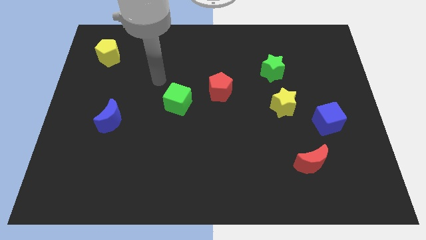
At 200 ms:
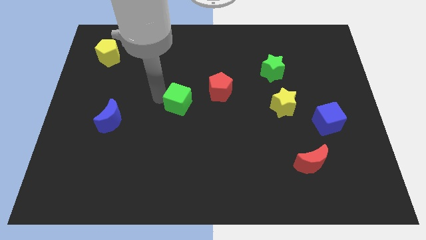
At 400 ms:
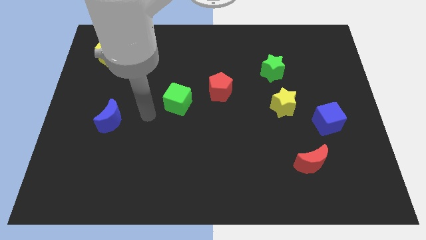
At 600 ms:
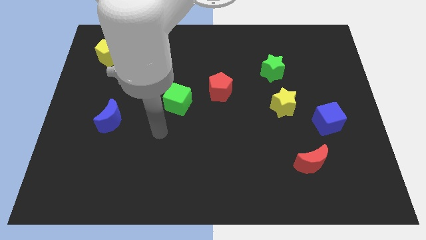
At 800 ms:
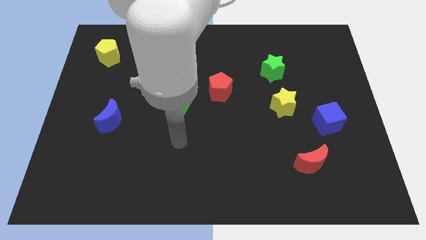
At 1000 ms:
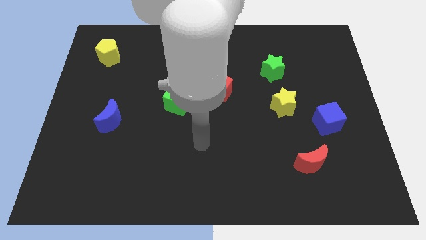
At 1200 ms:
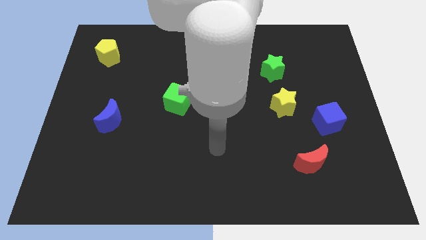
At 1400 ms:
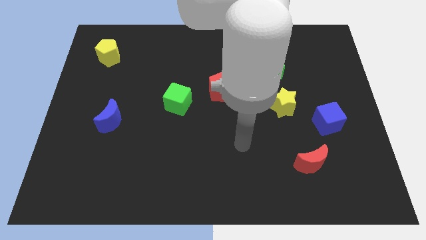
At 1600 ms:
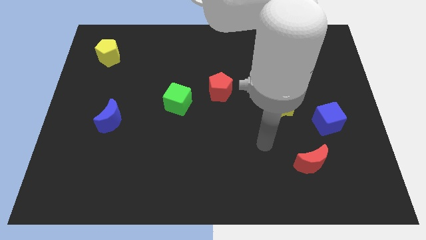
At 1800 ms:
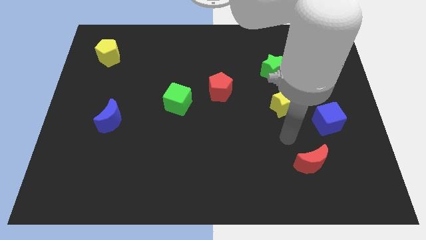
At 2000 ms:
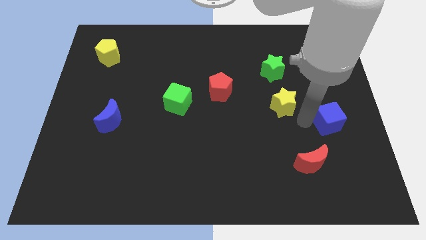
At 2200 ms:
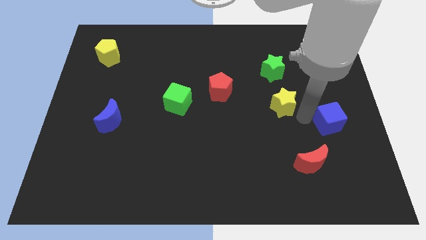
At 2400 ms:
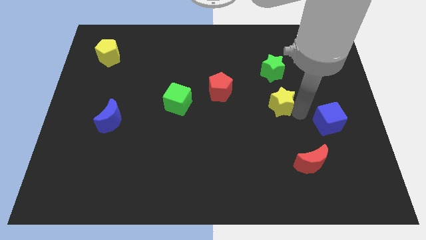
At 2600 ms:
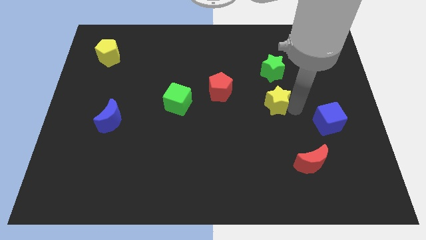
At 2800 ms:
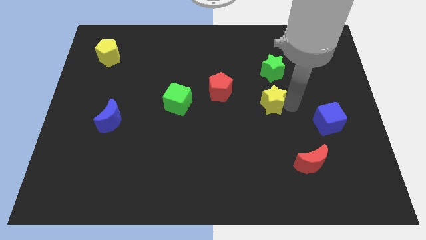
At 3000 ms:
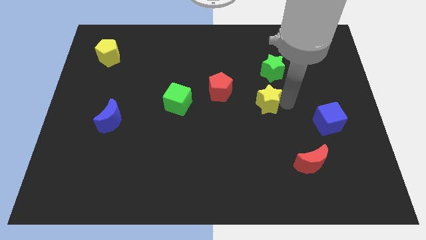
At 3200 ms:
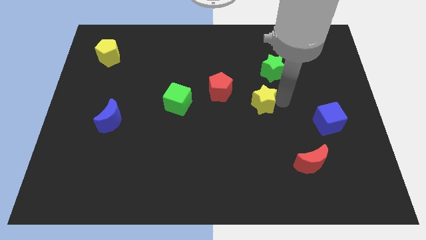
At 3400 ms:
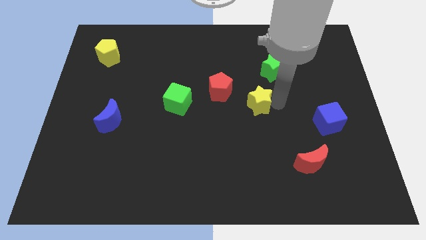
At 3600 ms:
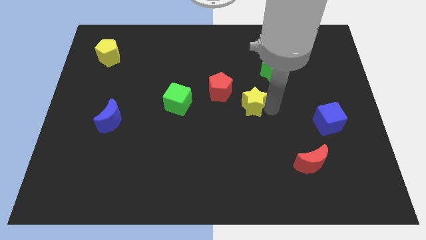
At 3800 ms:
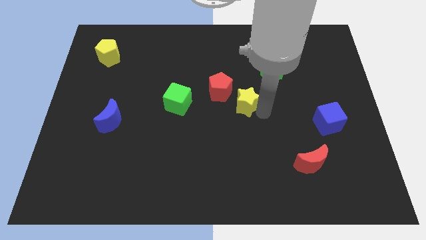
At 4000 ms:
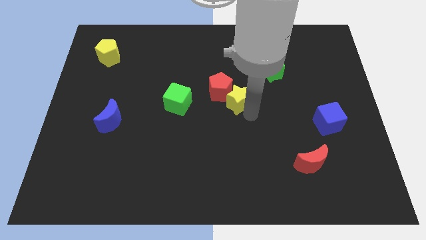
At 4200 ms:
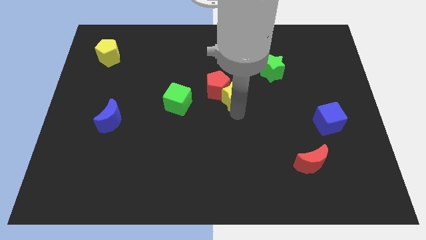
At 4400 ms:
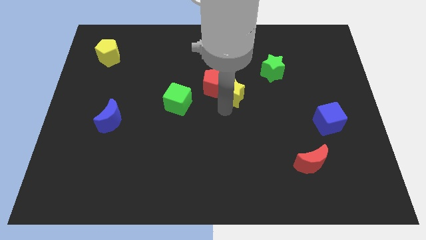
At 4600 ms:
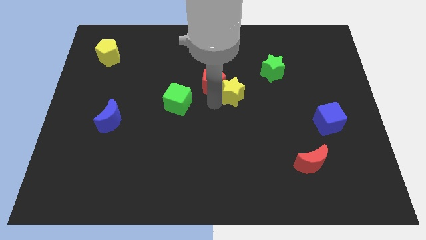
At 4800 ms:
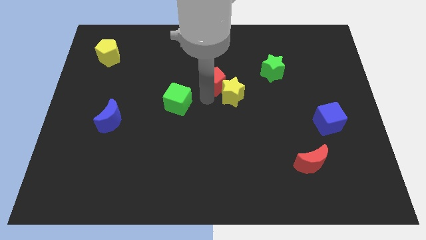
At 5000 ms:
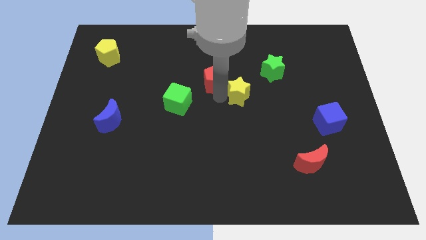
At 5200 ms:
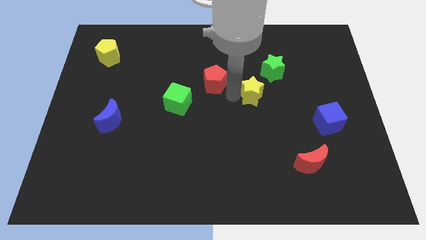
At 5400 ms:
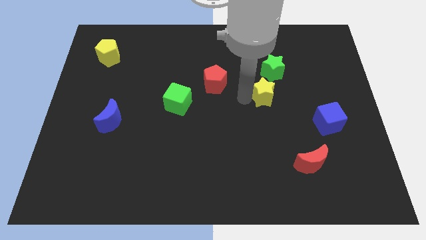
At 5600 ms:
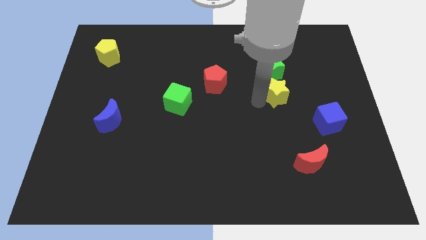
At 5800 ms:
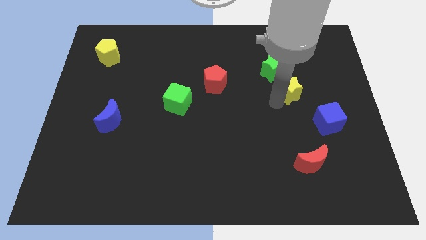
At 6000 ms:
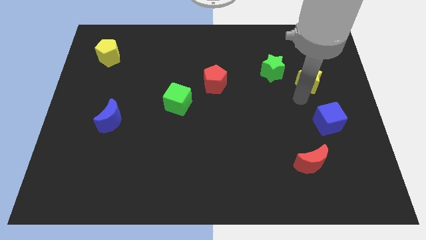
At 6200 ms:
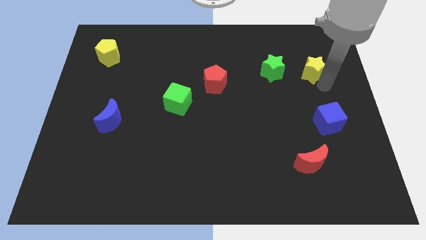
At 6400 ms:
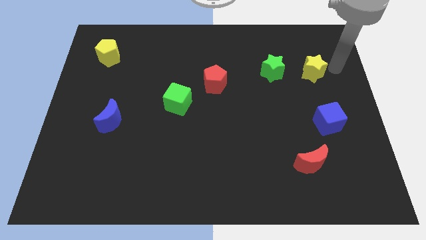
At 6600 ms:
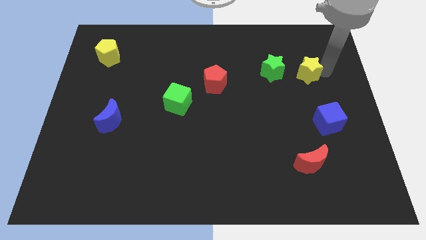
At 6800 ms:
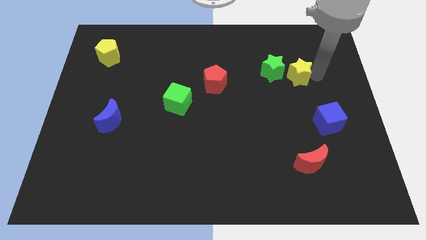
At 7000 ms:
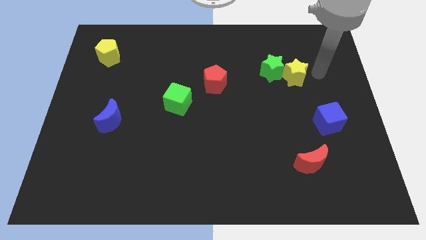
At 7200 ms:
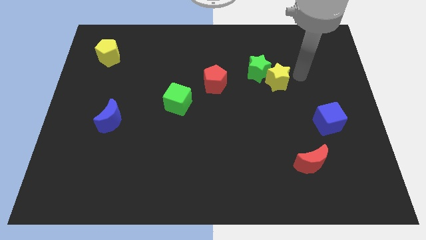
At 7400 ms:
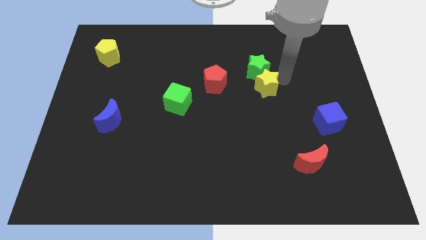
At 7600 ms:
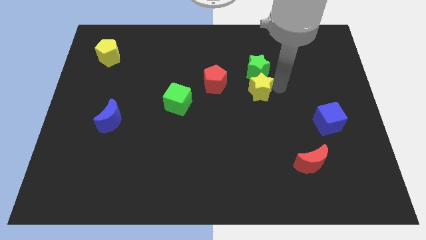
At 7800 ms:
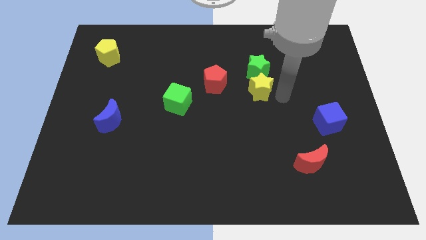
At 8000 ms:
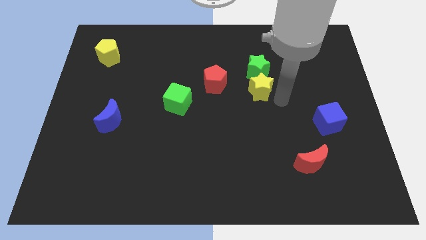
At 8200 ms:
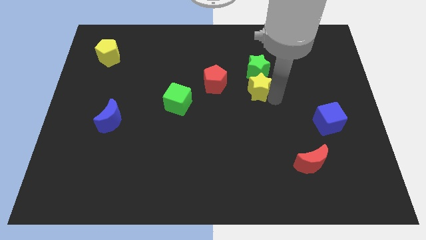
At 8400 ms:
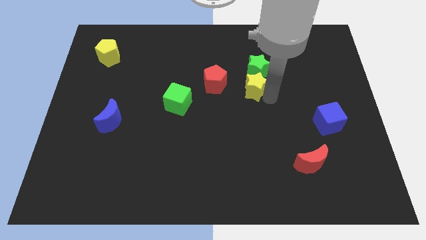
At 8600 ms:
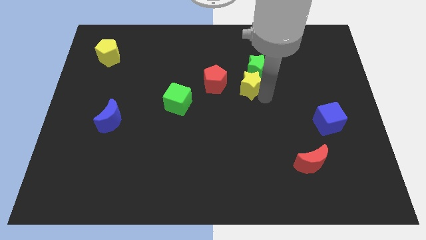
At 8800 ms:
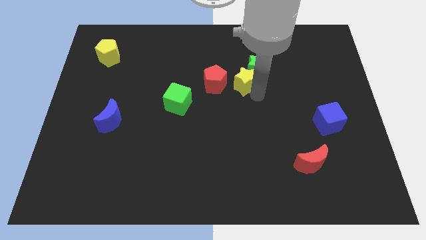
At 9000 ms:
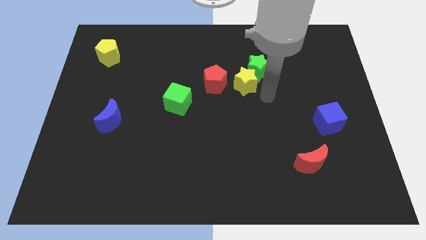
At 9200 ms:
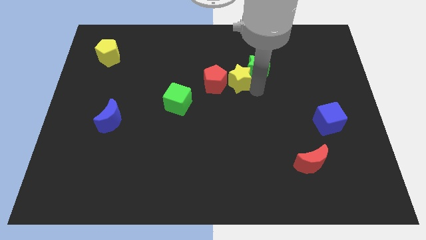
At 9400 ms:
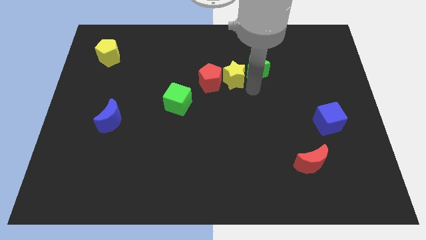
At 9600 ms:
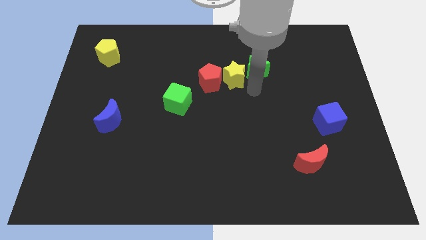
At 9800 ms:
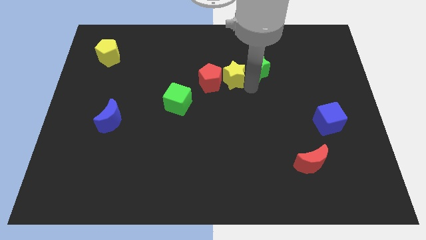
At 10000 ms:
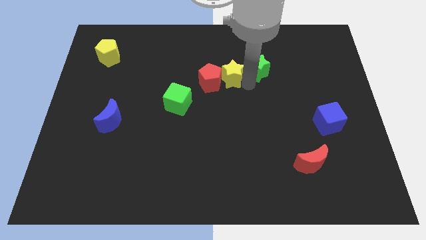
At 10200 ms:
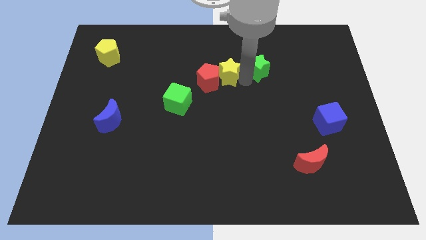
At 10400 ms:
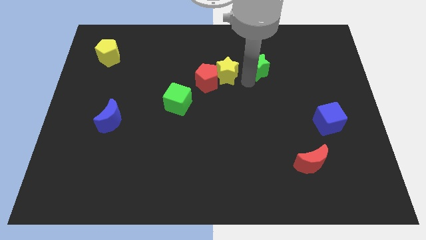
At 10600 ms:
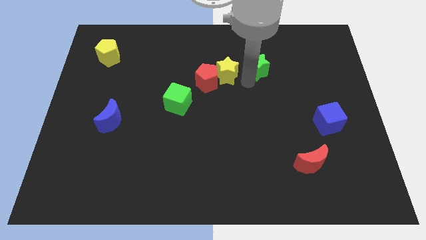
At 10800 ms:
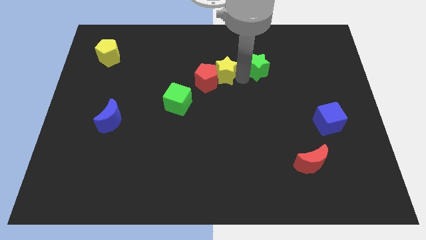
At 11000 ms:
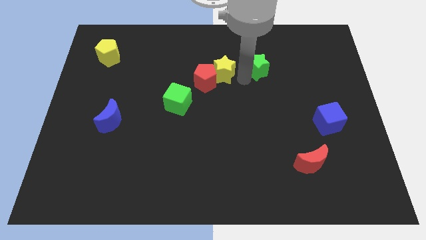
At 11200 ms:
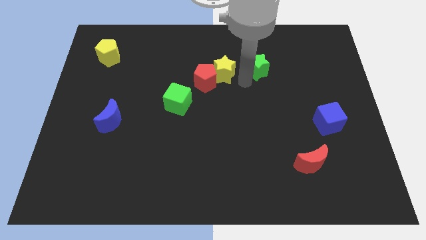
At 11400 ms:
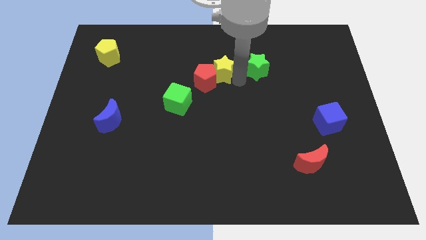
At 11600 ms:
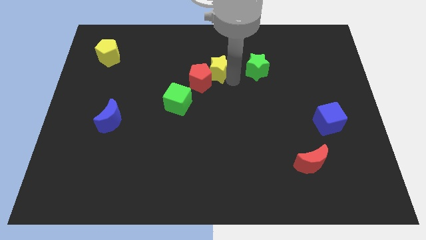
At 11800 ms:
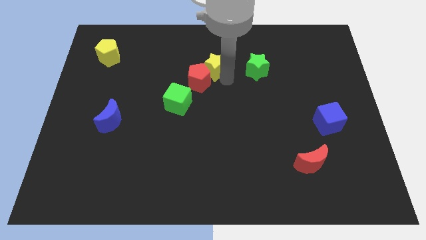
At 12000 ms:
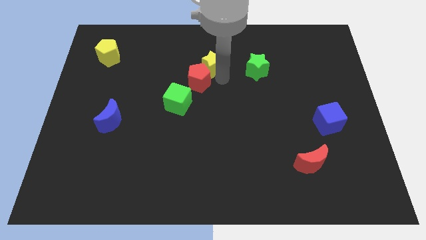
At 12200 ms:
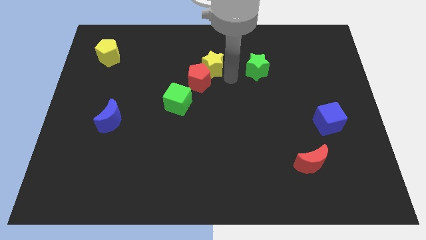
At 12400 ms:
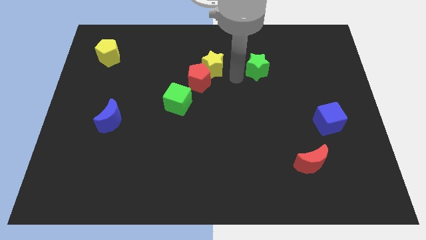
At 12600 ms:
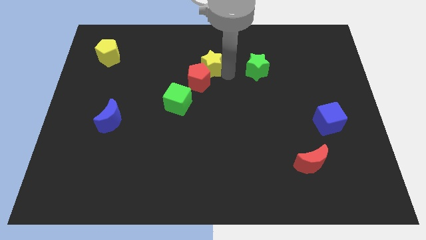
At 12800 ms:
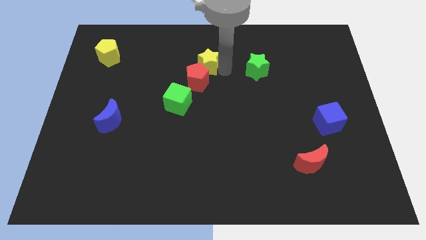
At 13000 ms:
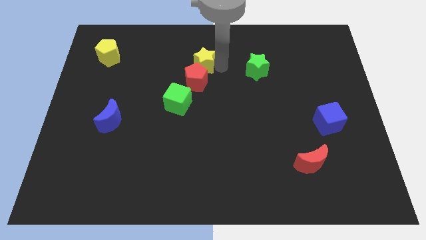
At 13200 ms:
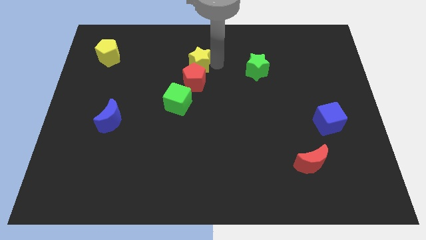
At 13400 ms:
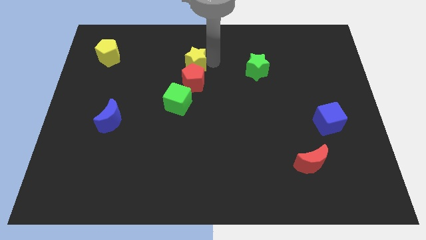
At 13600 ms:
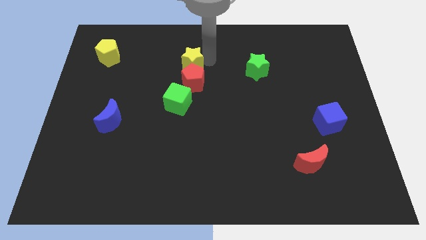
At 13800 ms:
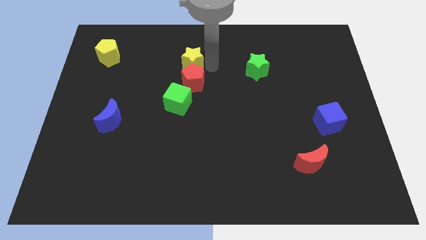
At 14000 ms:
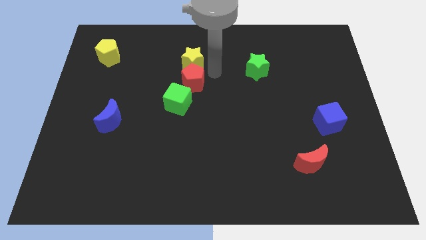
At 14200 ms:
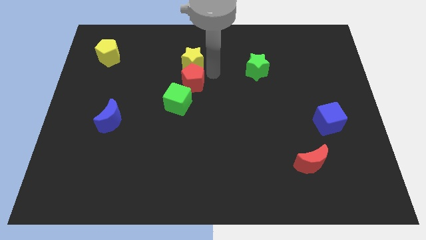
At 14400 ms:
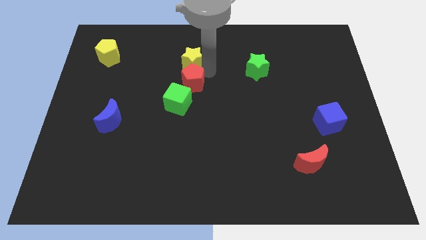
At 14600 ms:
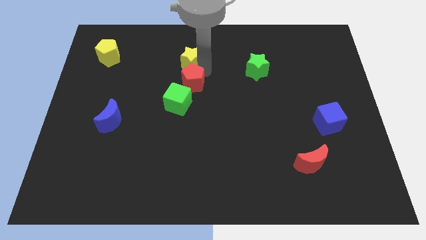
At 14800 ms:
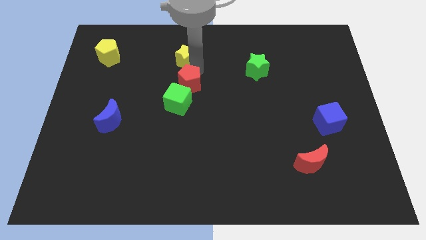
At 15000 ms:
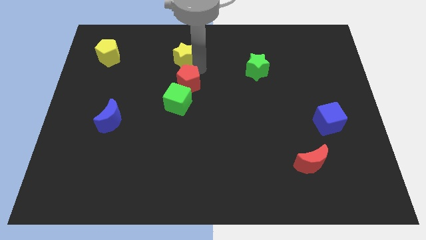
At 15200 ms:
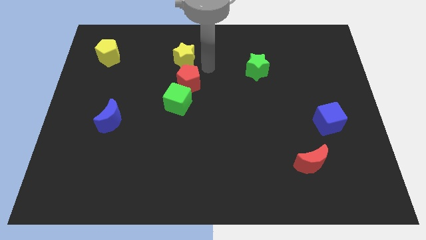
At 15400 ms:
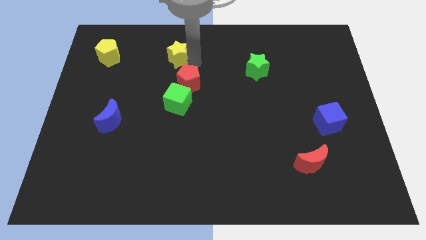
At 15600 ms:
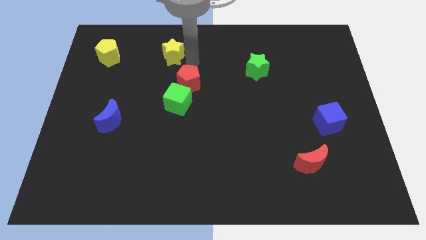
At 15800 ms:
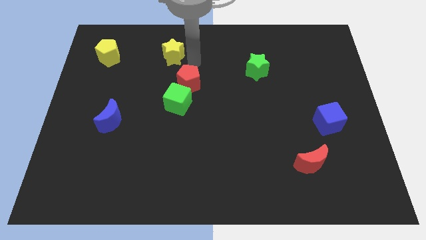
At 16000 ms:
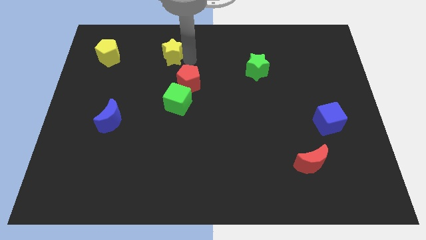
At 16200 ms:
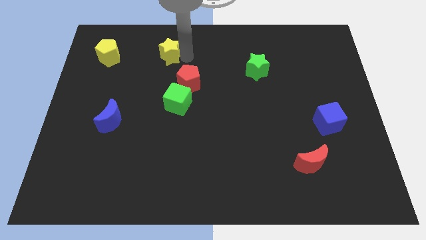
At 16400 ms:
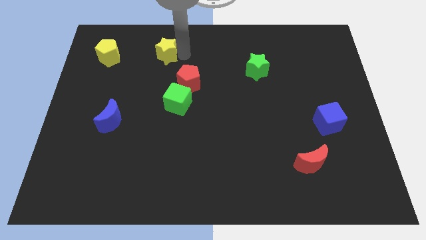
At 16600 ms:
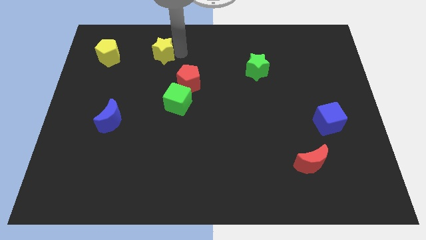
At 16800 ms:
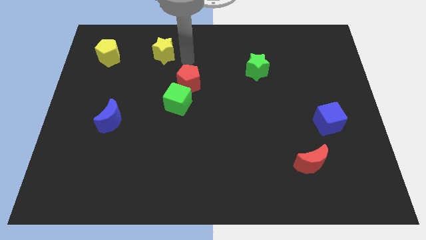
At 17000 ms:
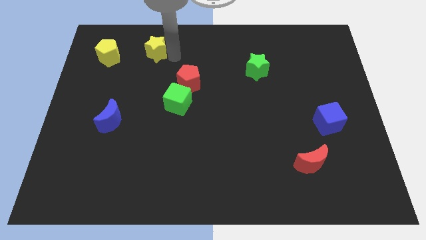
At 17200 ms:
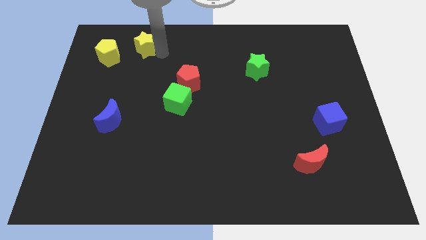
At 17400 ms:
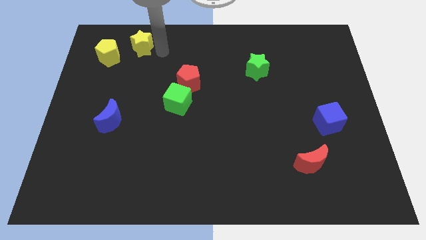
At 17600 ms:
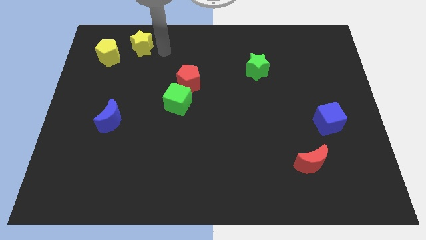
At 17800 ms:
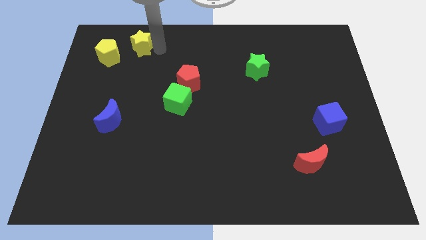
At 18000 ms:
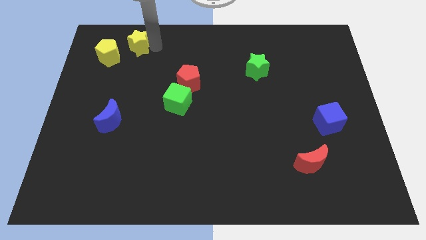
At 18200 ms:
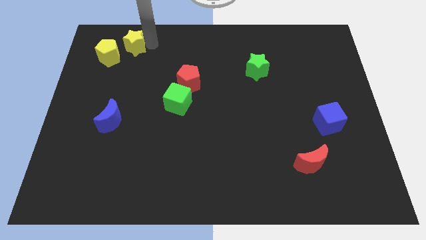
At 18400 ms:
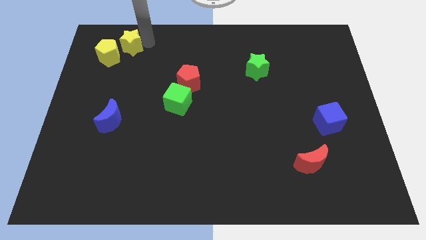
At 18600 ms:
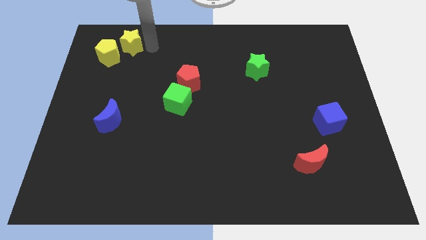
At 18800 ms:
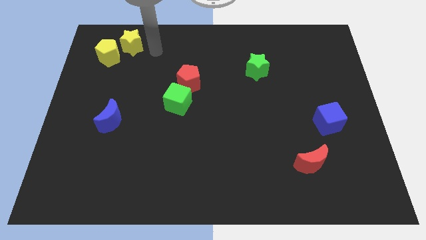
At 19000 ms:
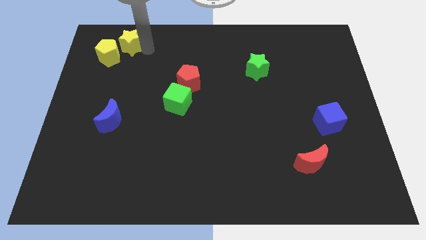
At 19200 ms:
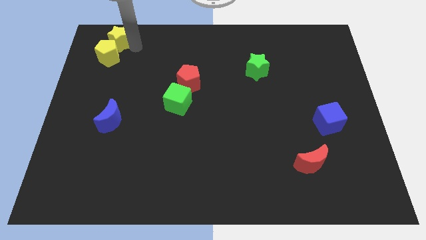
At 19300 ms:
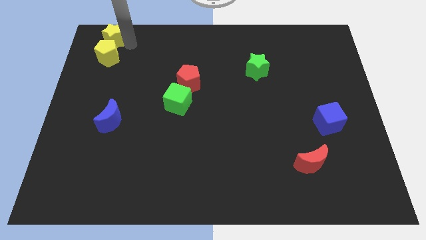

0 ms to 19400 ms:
slide the yellow star to the upper left corner
